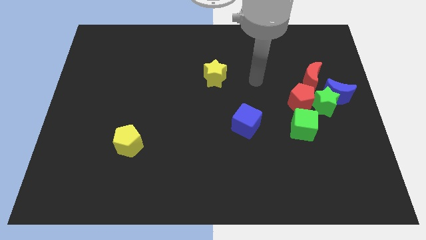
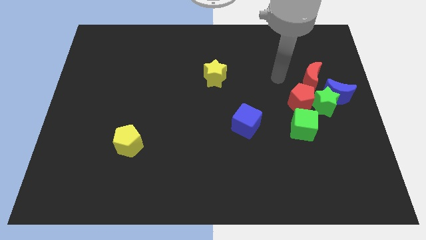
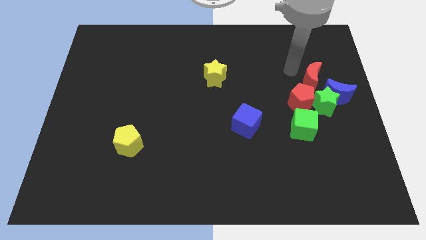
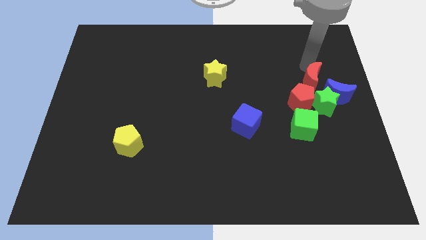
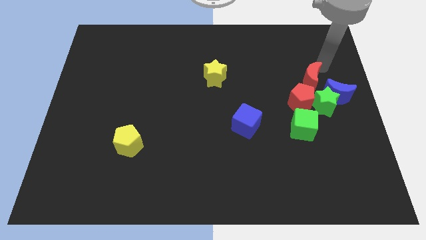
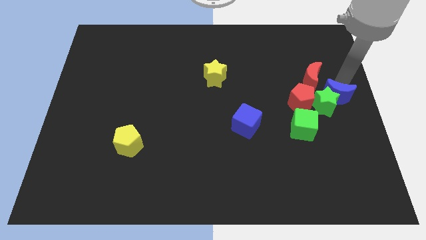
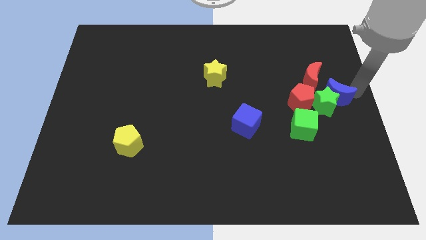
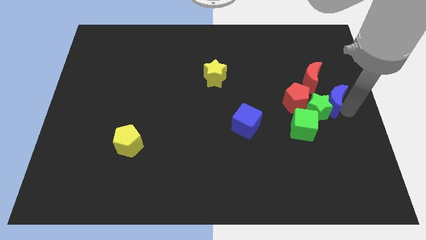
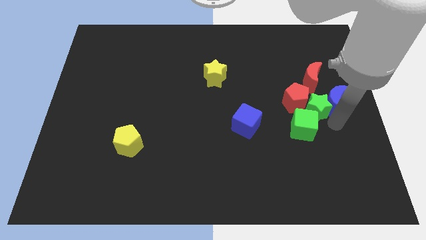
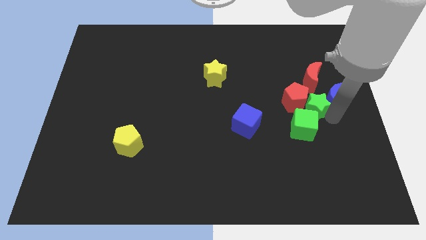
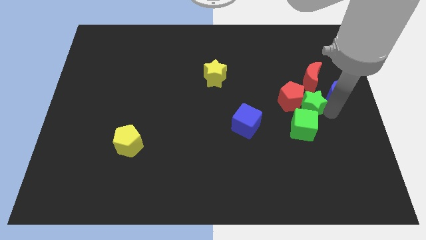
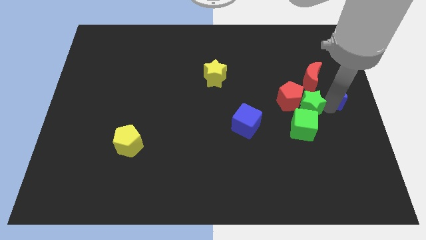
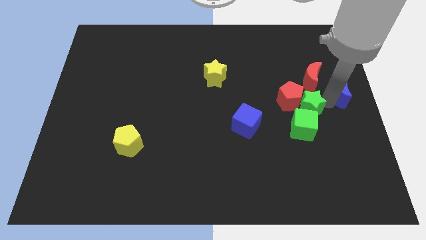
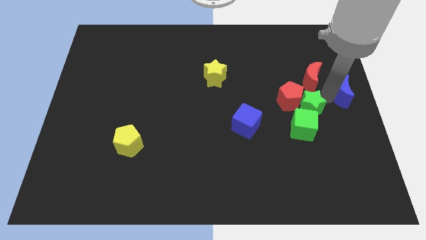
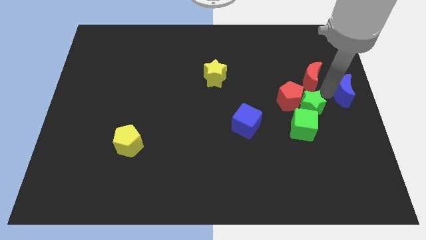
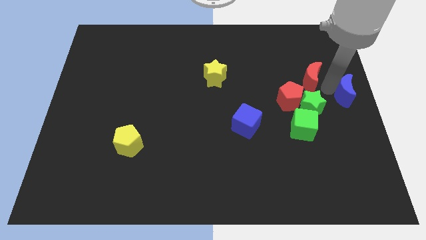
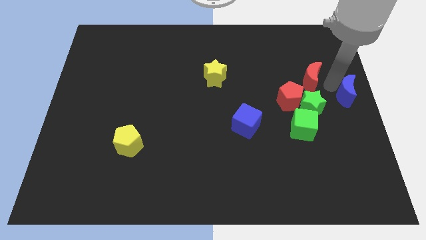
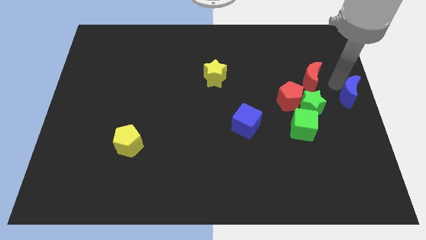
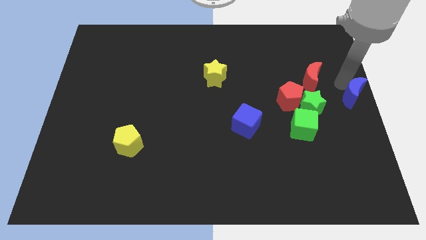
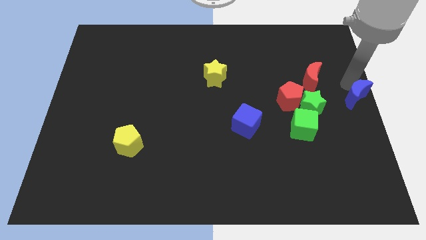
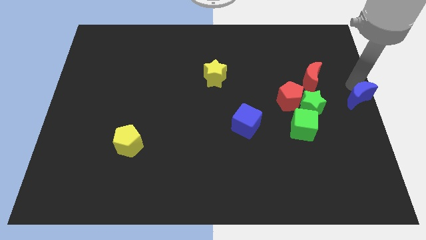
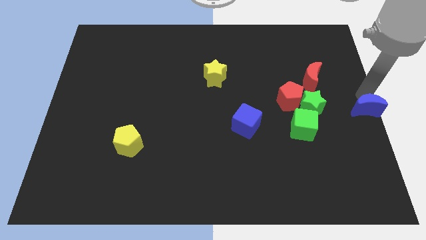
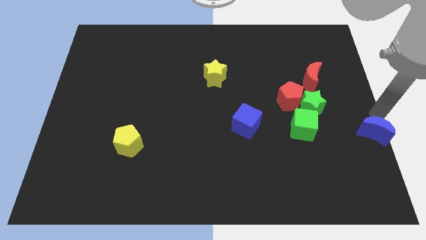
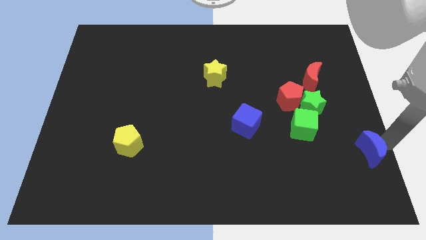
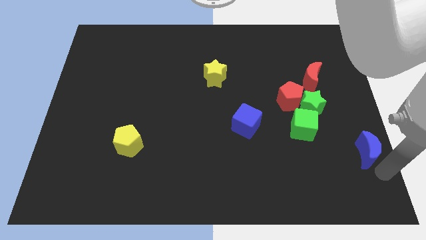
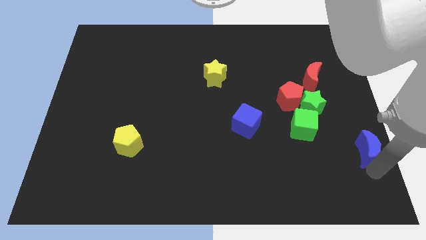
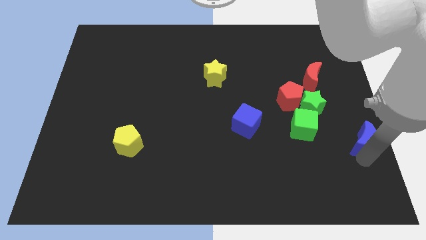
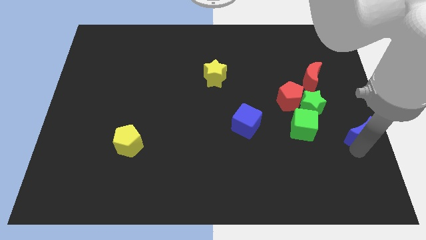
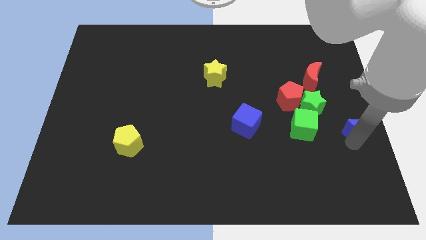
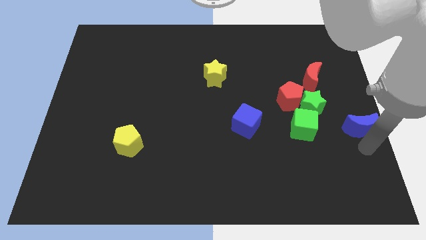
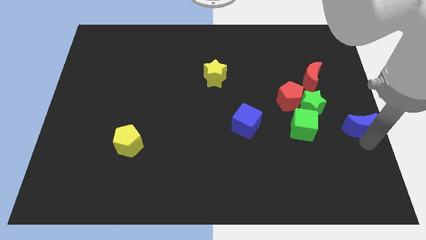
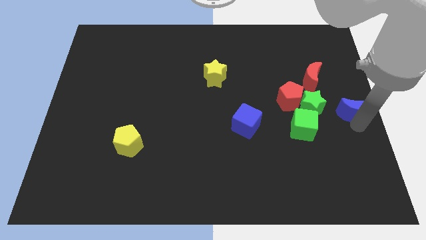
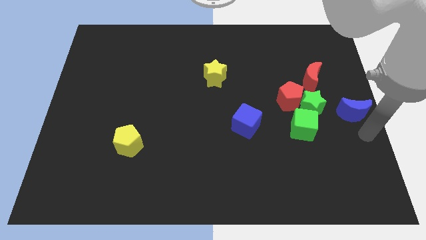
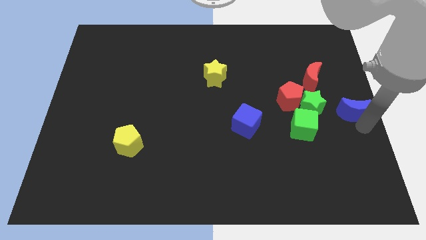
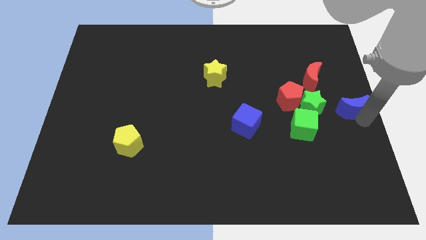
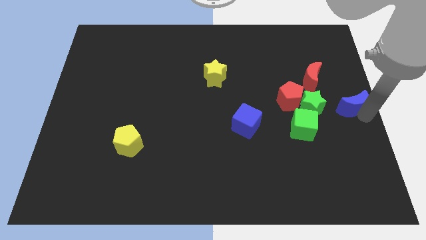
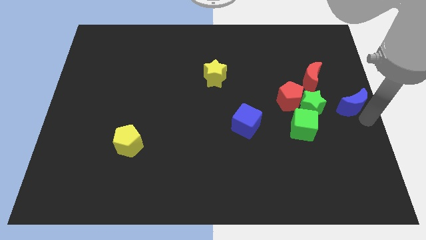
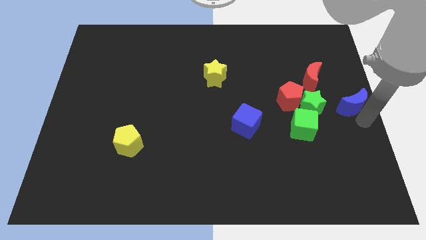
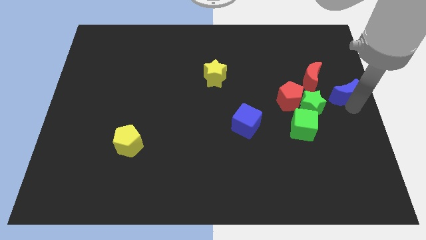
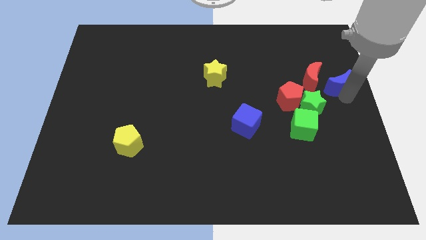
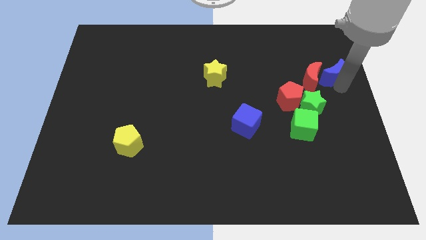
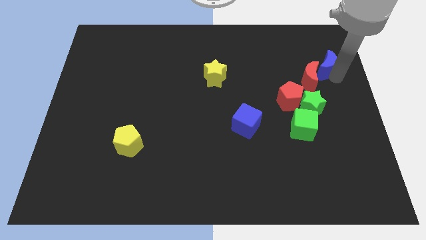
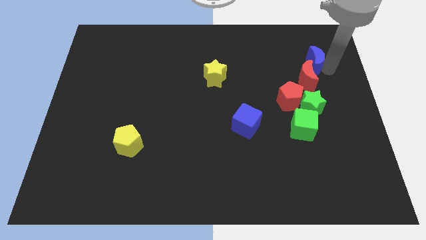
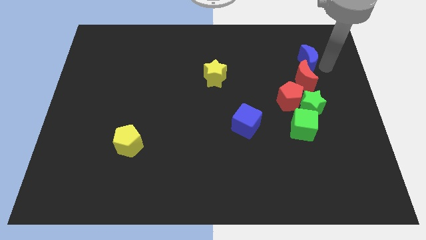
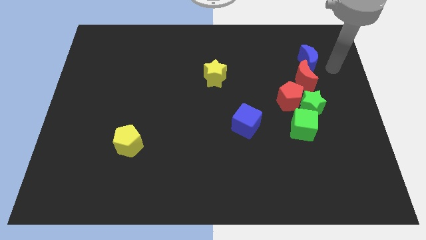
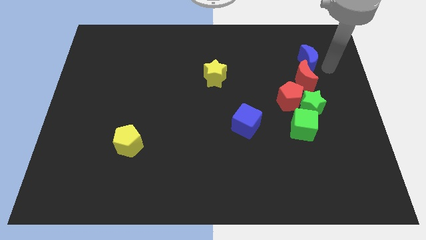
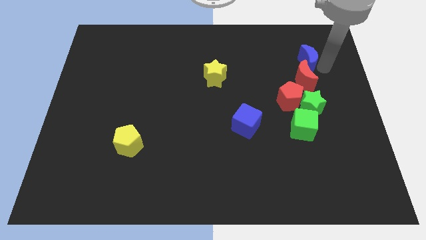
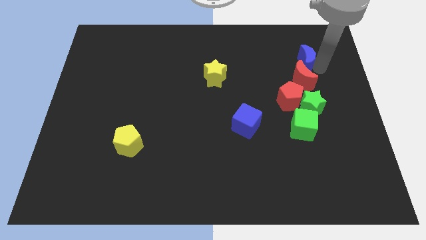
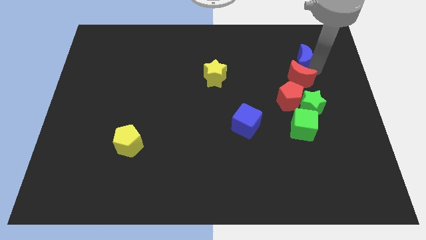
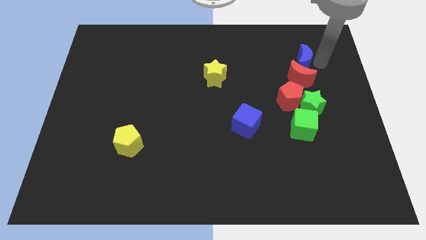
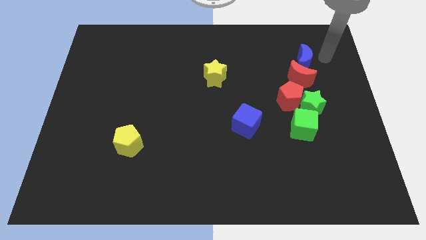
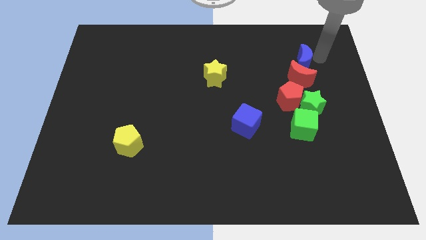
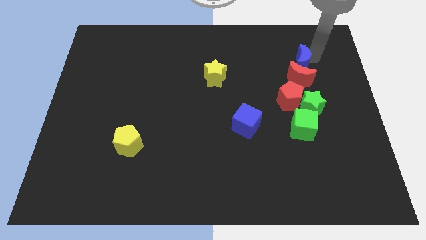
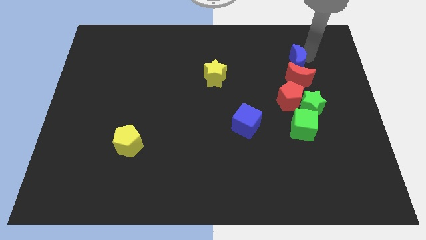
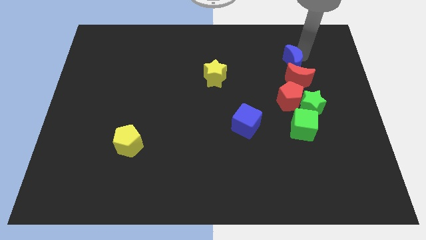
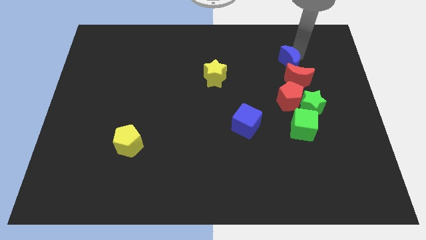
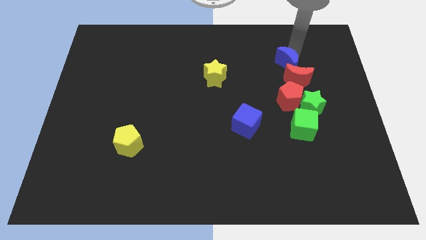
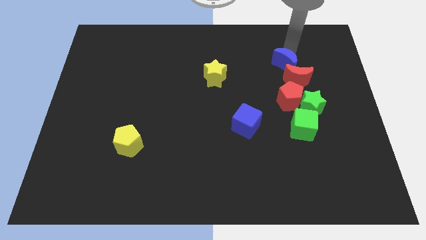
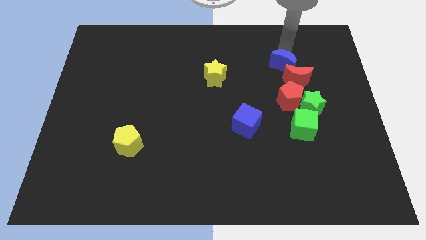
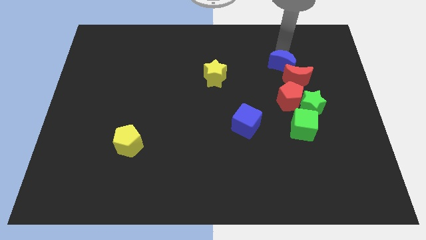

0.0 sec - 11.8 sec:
push the blue moon to the left a little bit

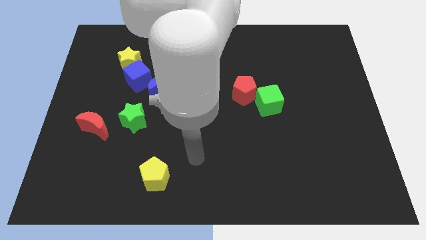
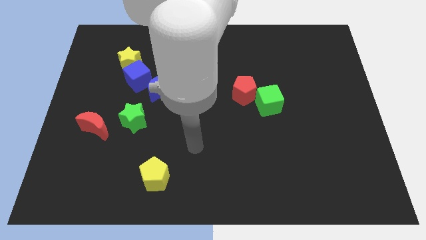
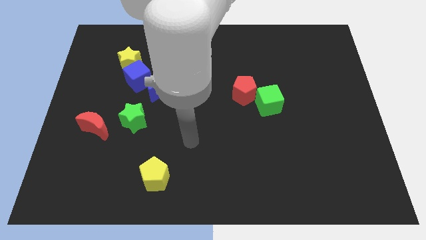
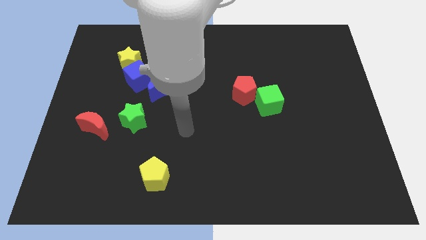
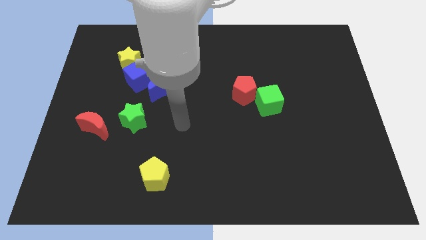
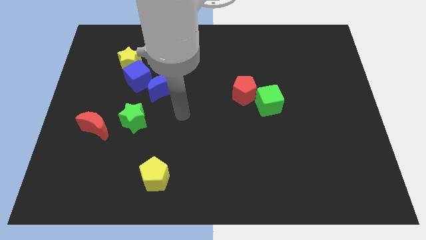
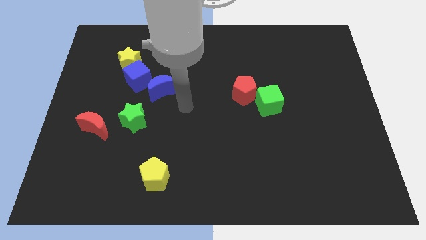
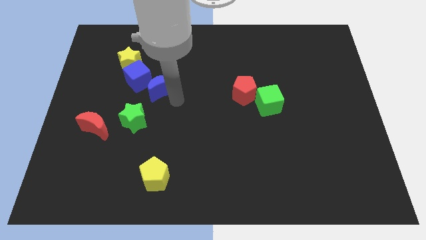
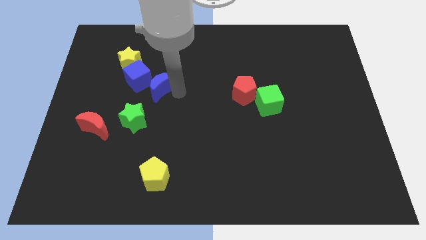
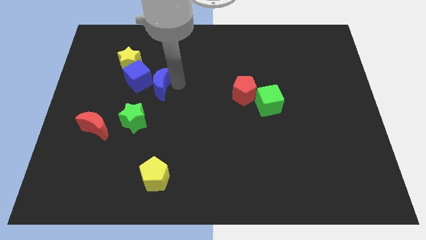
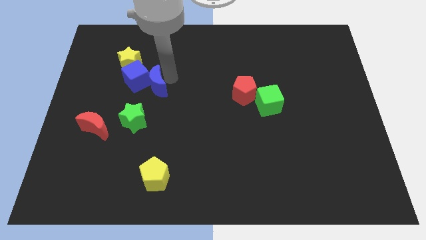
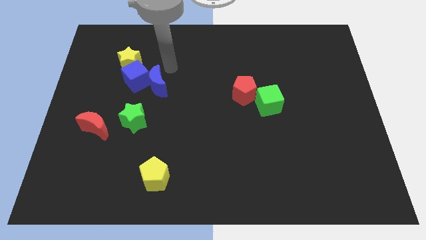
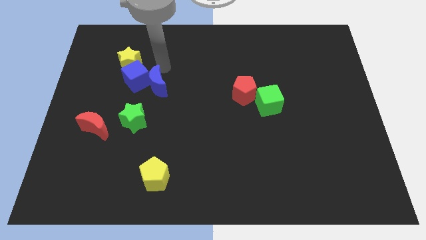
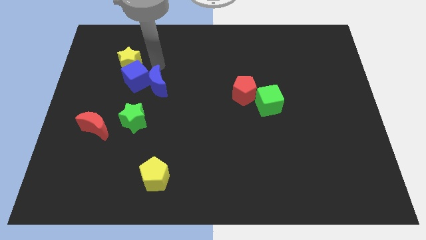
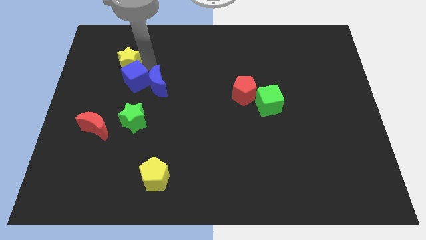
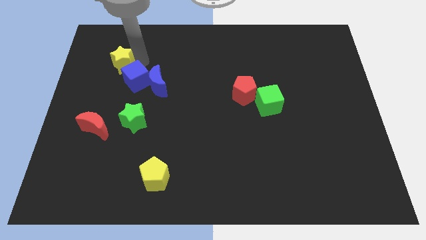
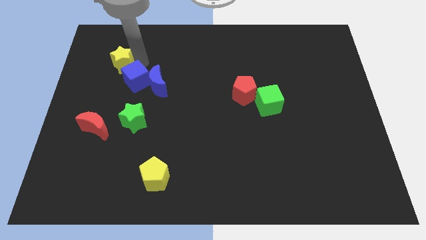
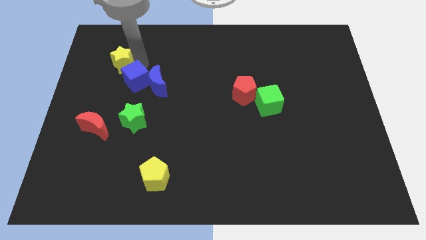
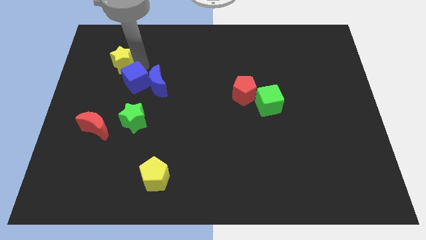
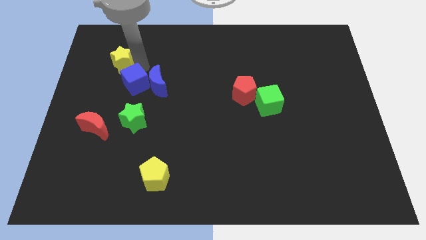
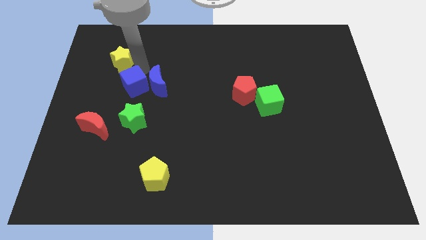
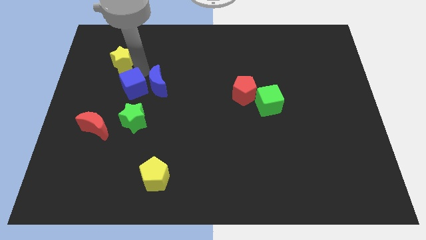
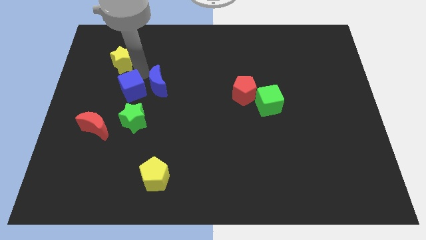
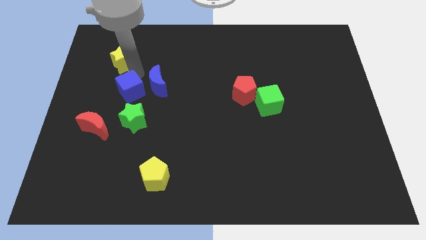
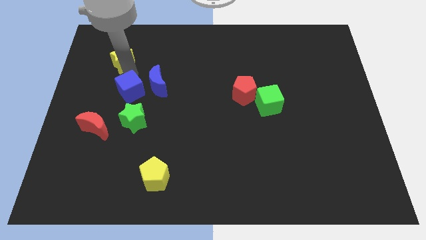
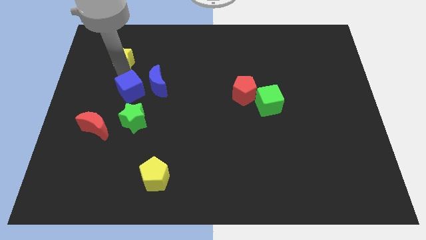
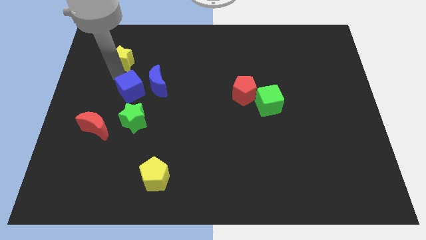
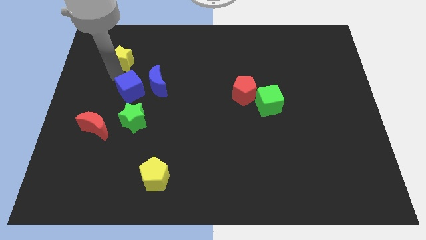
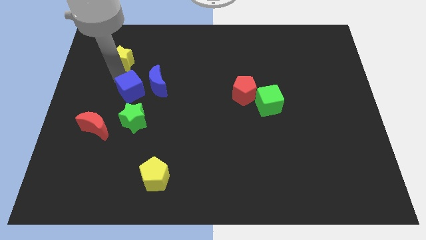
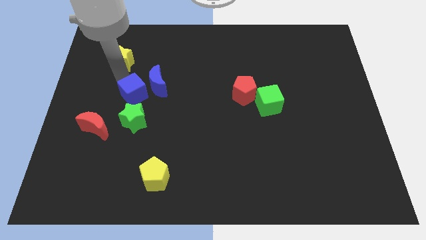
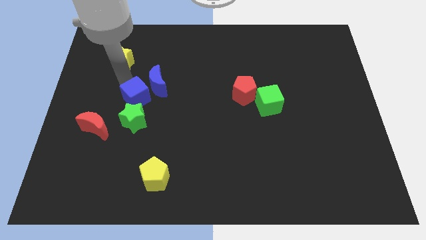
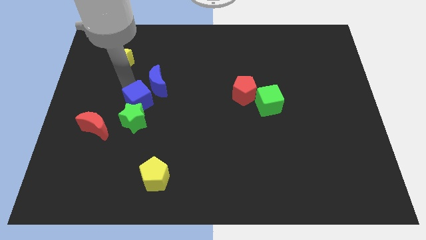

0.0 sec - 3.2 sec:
move the blue cube downwards somewhat
